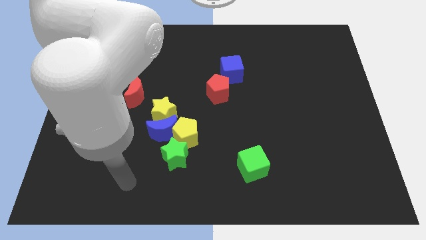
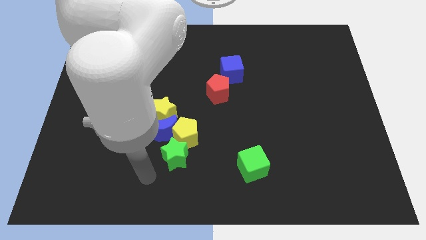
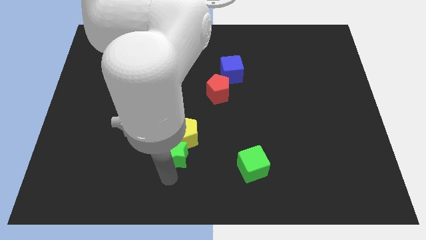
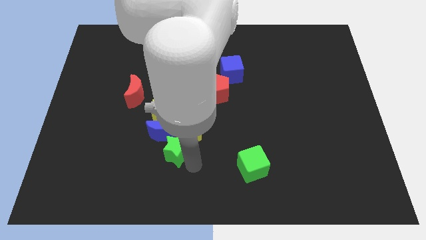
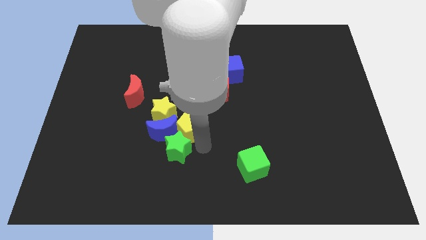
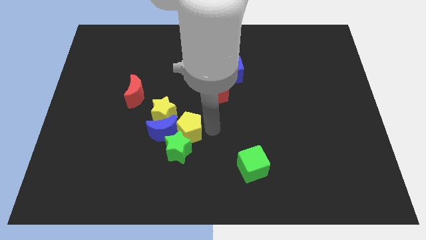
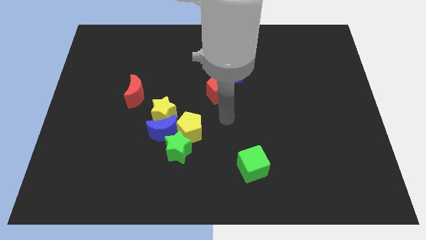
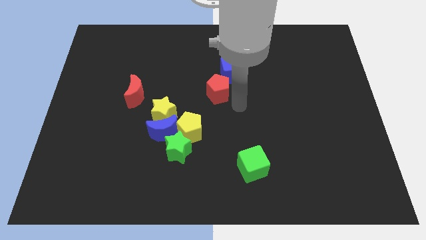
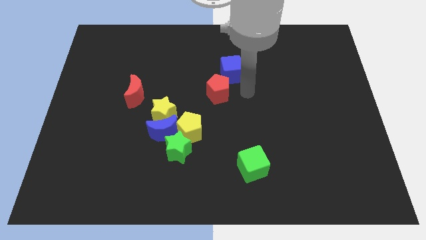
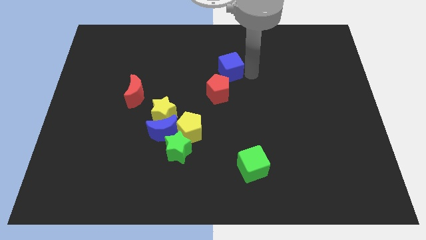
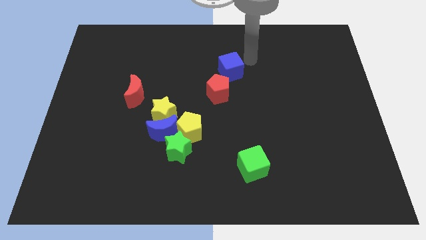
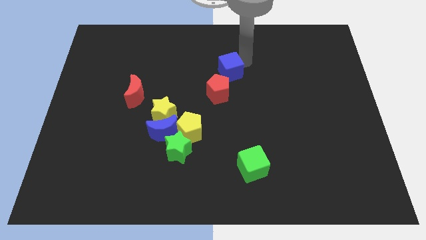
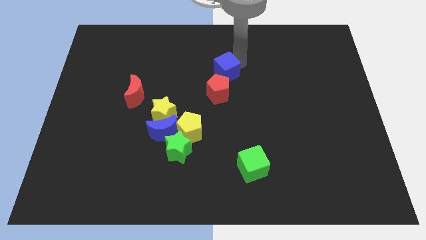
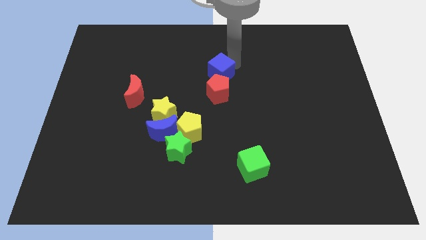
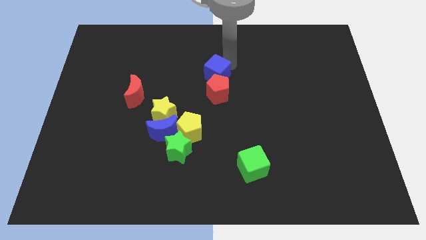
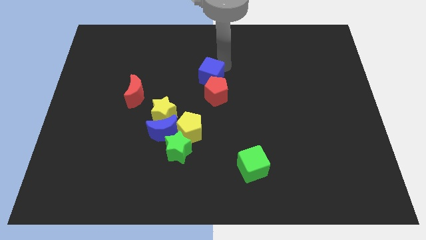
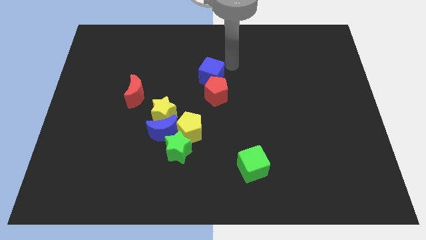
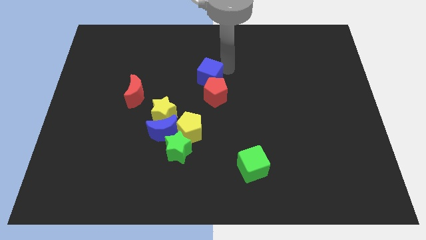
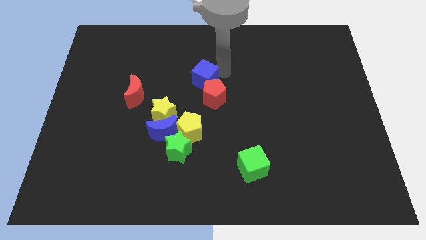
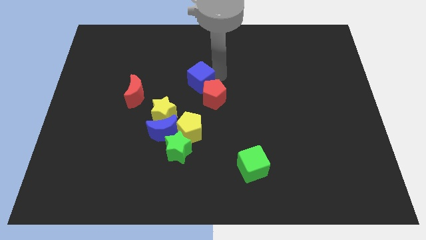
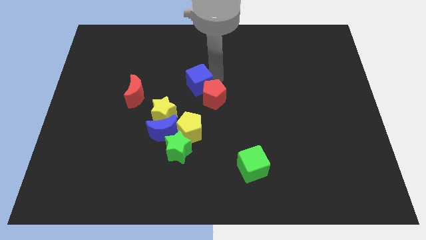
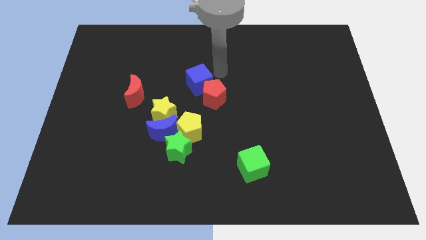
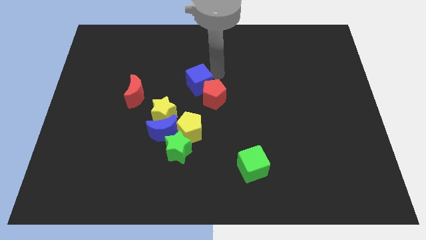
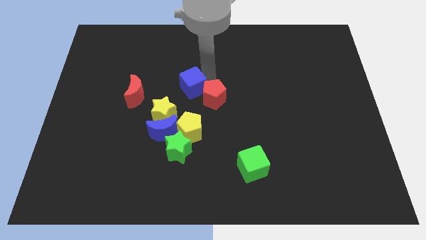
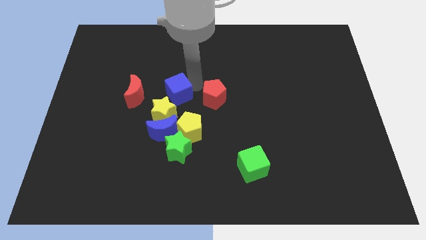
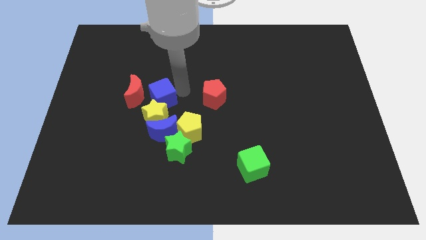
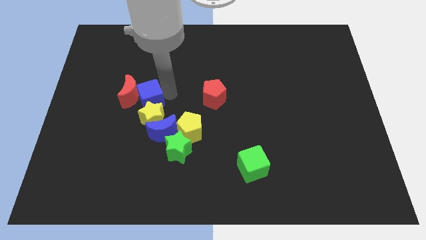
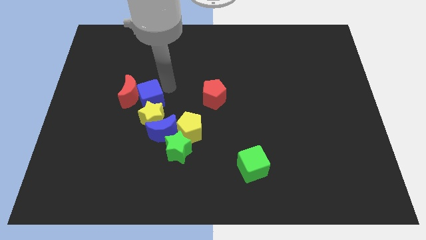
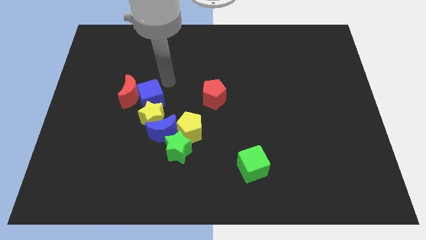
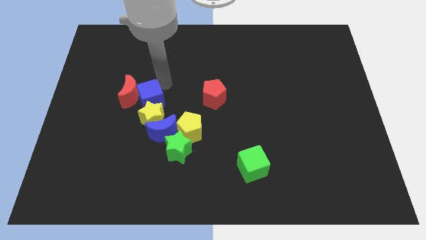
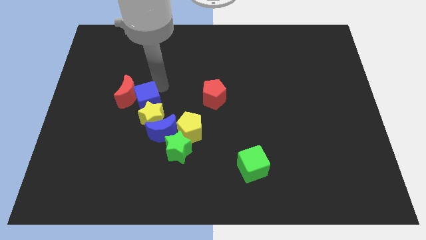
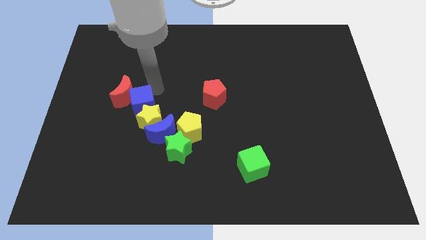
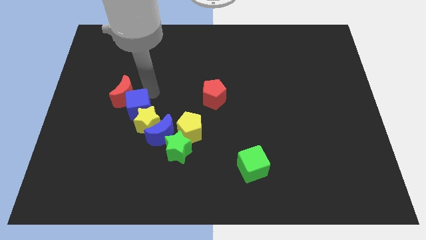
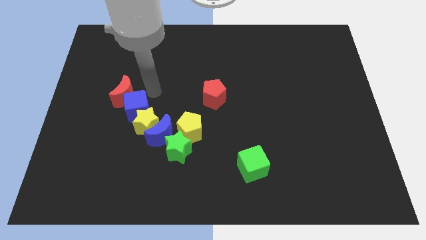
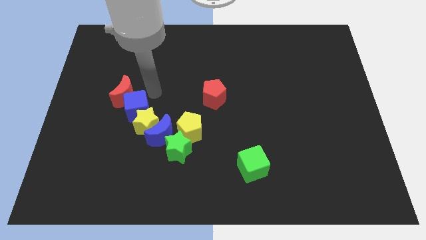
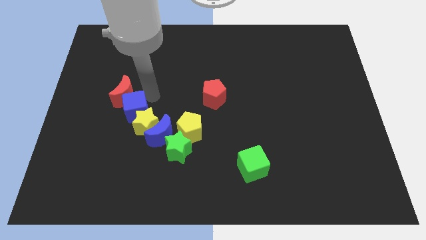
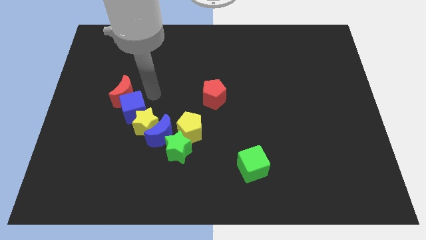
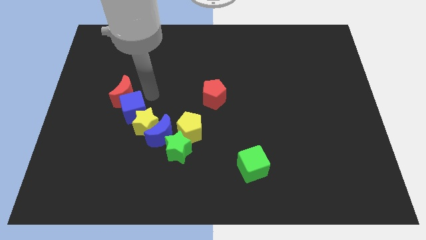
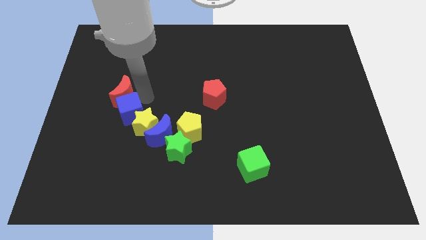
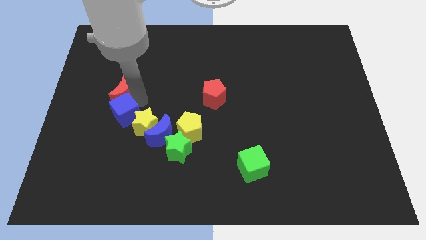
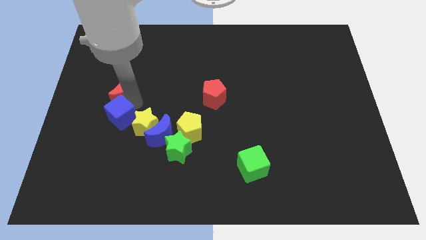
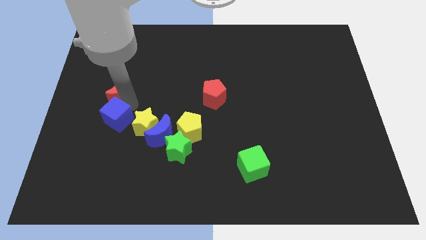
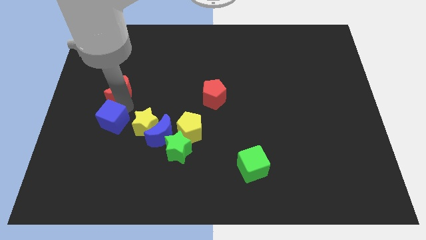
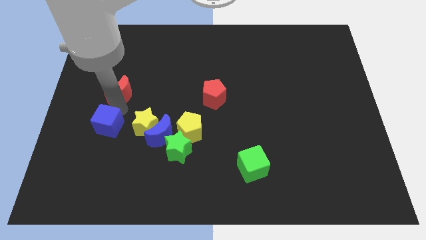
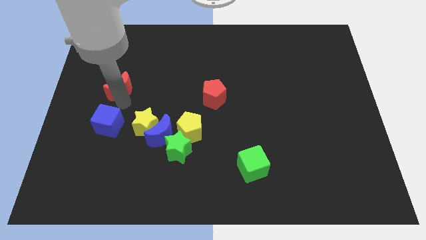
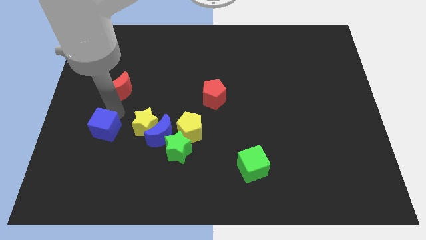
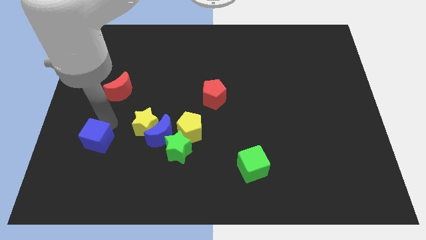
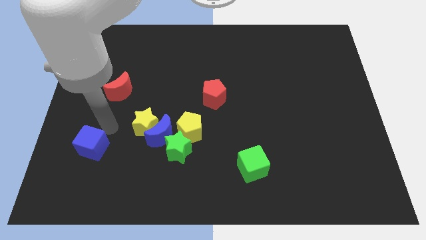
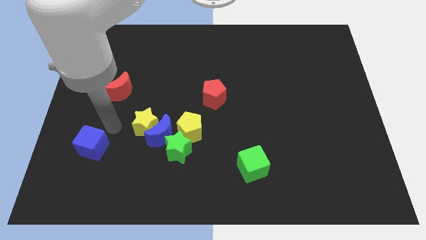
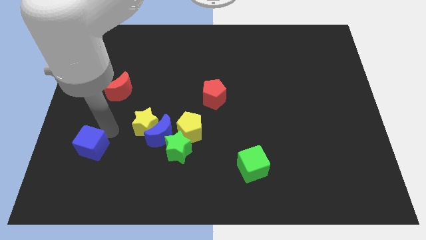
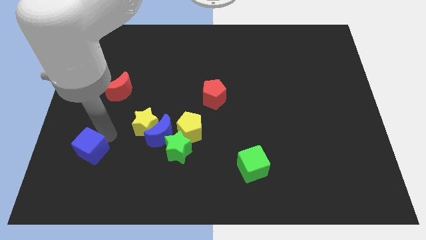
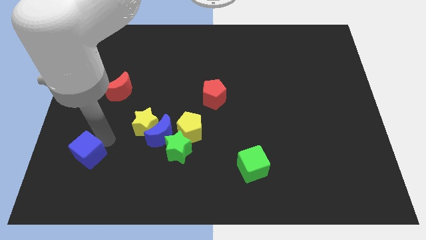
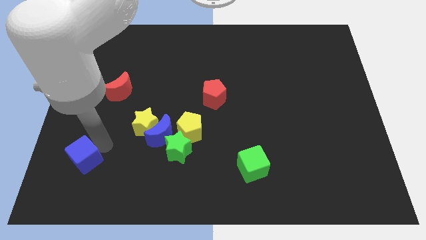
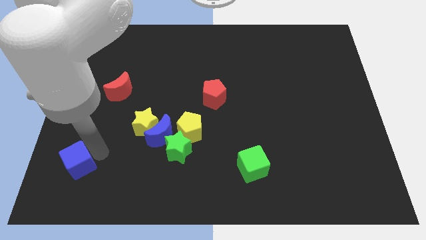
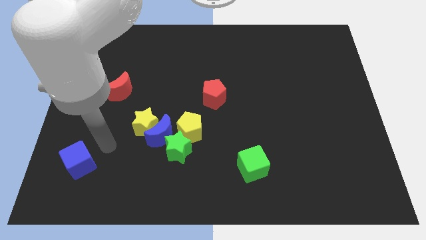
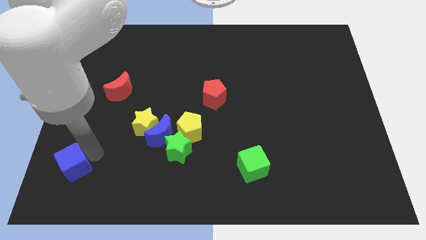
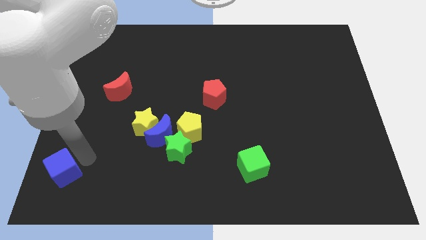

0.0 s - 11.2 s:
slide the blue cube to the bottom left of the board

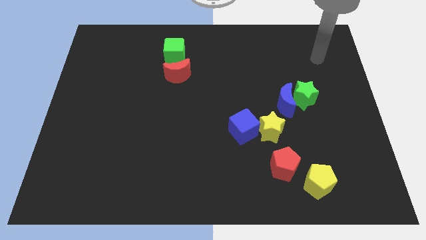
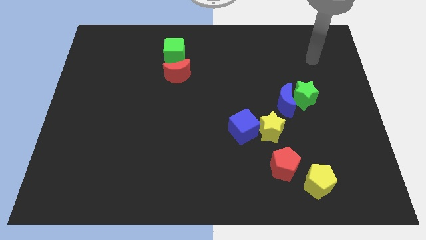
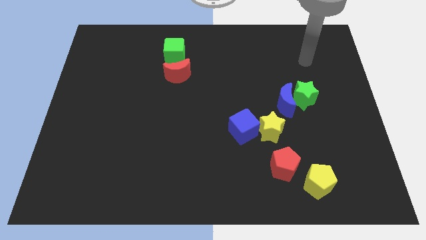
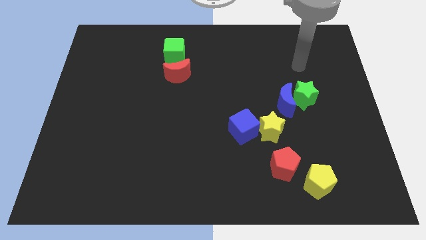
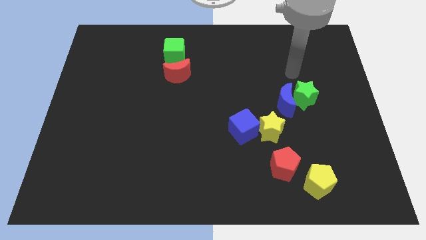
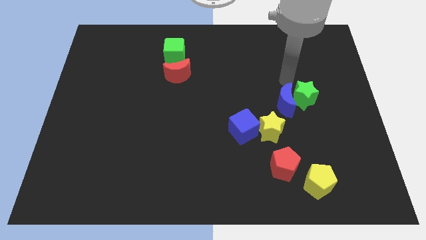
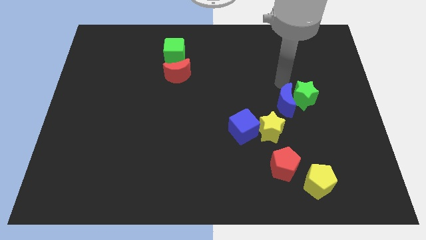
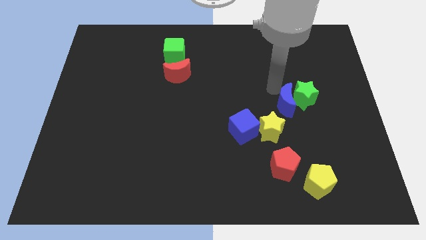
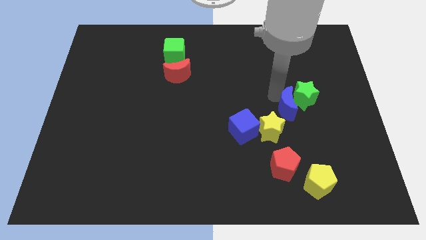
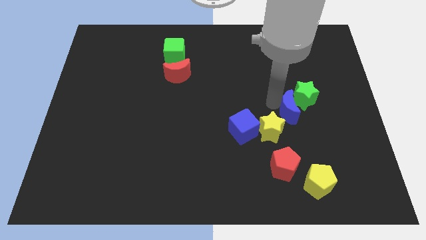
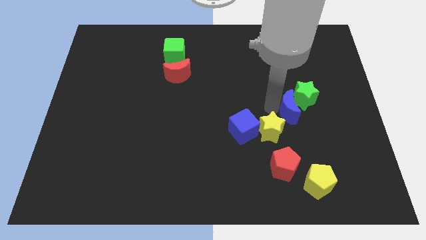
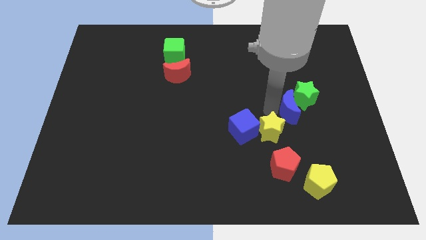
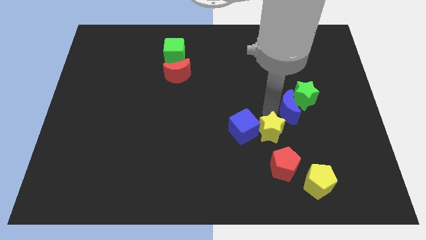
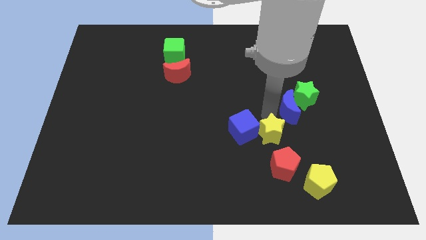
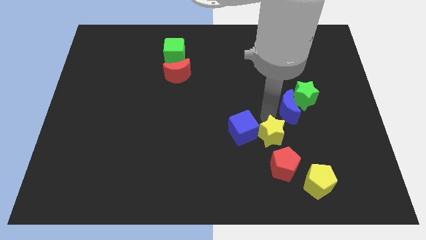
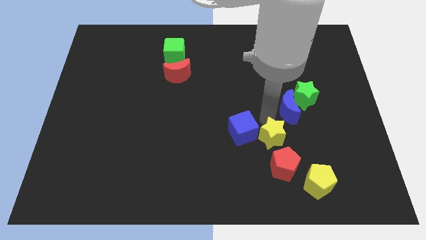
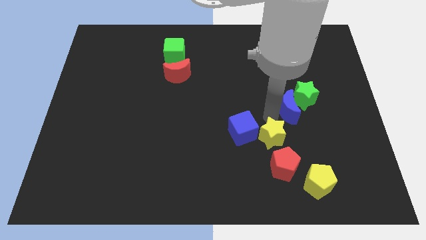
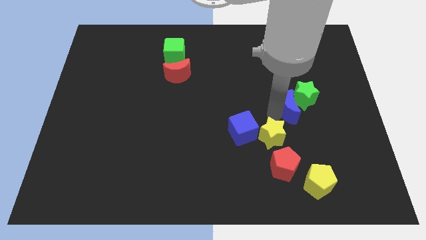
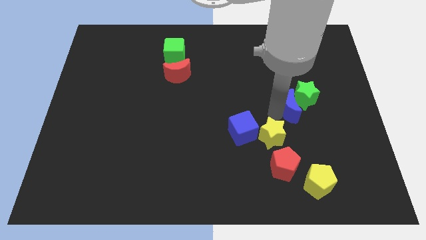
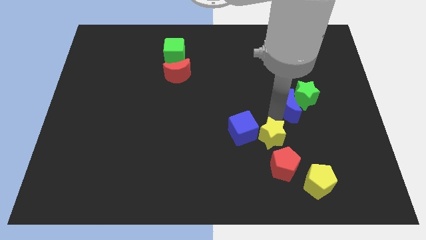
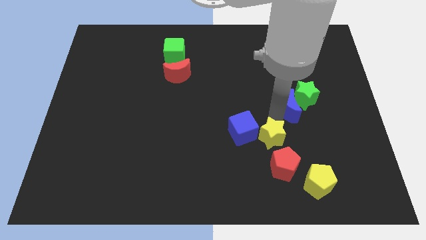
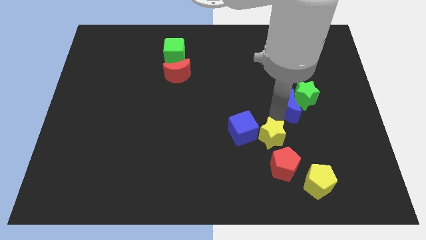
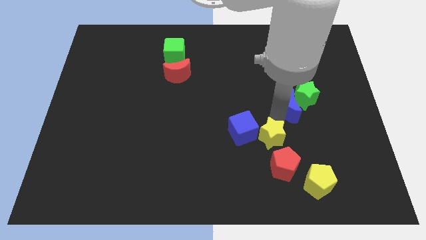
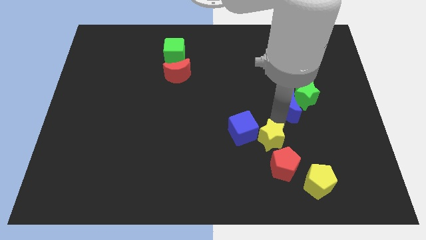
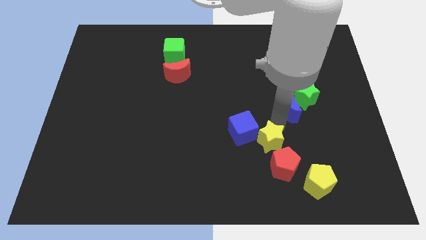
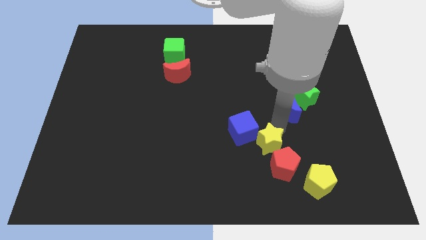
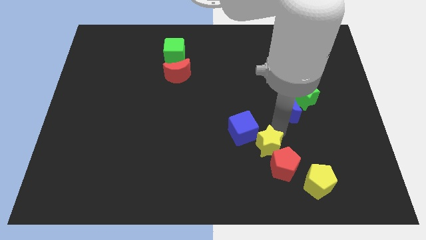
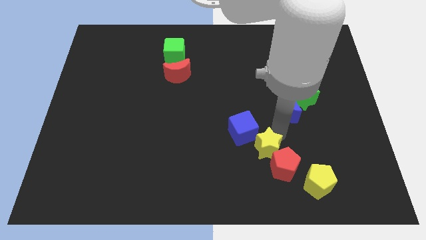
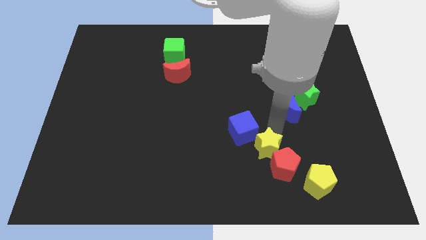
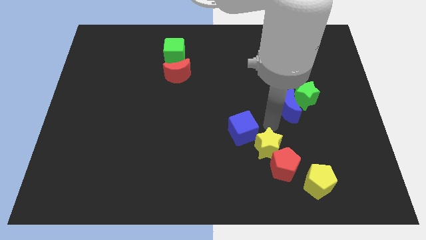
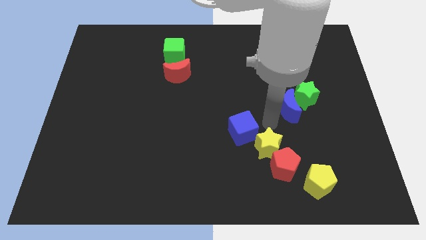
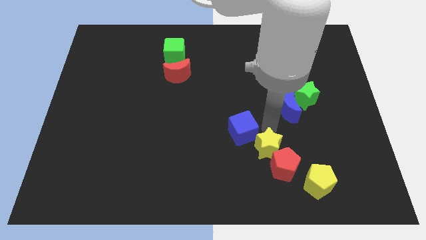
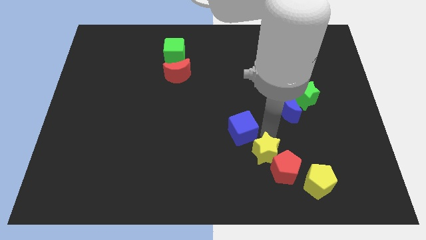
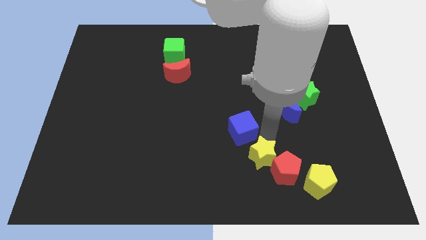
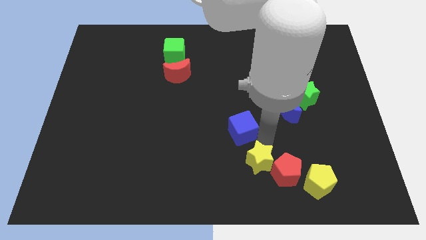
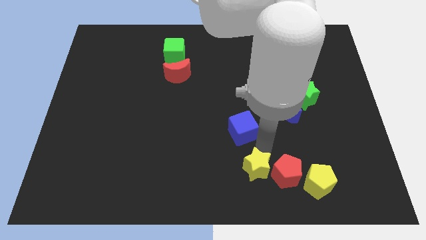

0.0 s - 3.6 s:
put the yellow star to the bottom side
